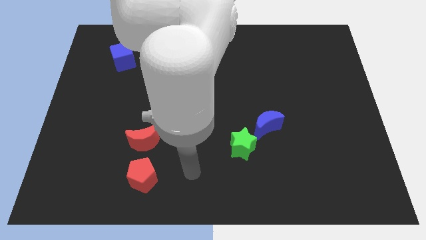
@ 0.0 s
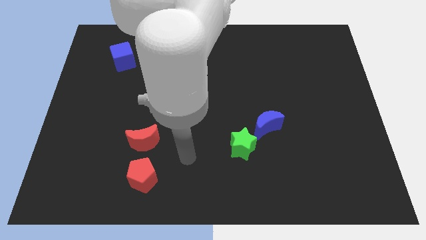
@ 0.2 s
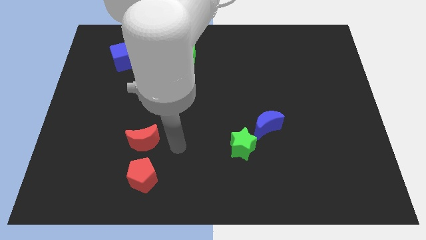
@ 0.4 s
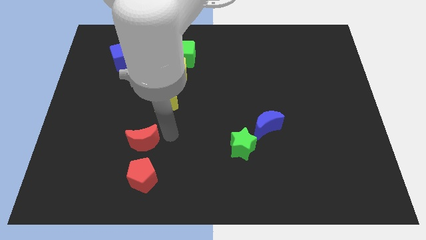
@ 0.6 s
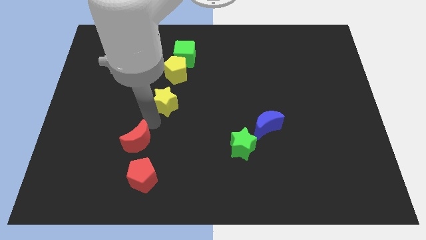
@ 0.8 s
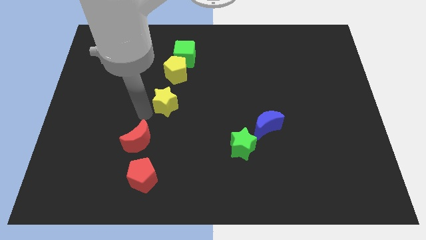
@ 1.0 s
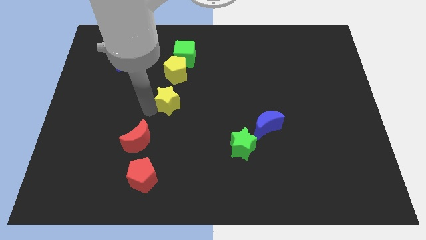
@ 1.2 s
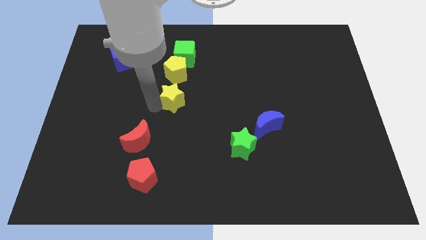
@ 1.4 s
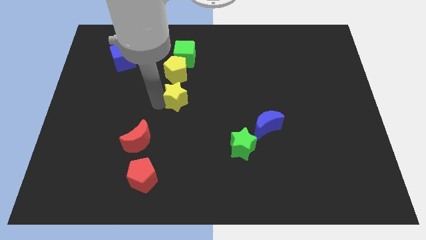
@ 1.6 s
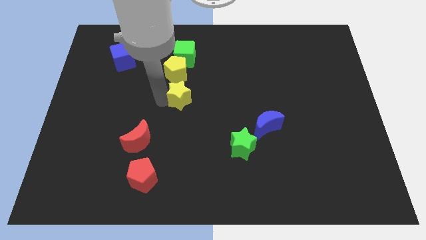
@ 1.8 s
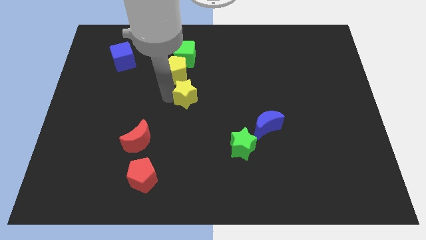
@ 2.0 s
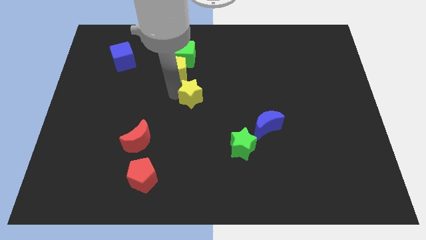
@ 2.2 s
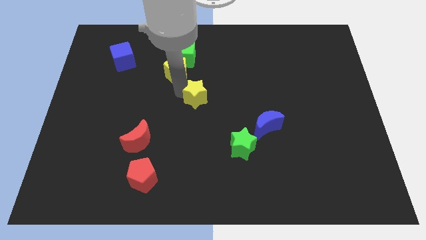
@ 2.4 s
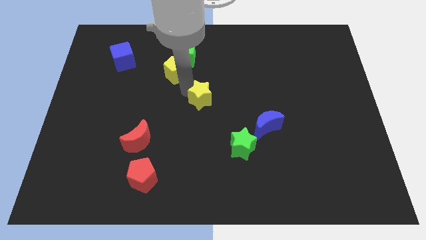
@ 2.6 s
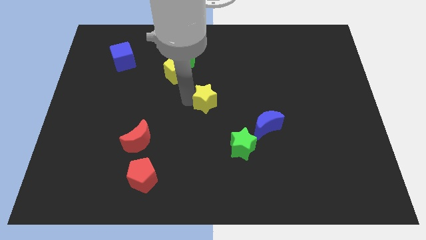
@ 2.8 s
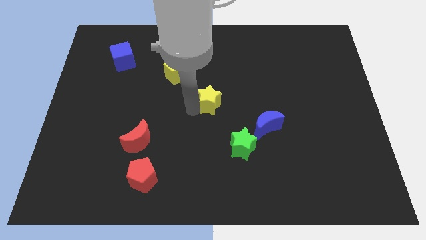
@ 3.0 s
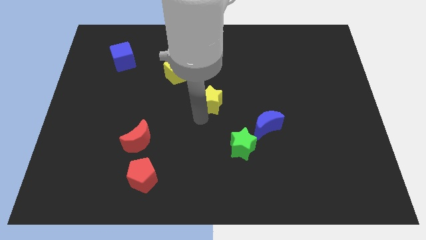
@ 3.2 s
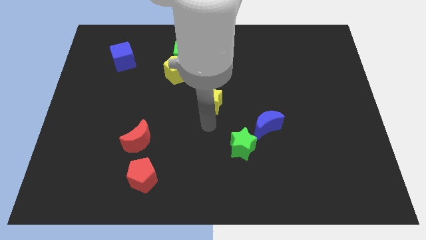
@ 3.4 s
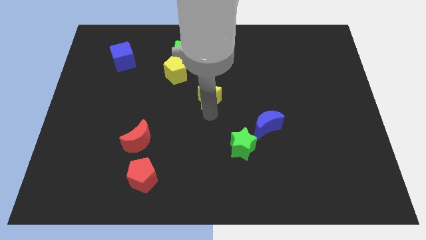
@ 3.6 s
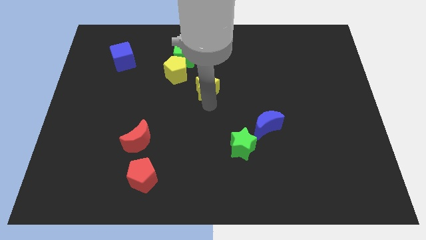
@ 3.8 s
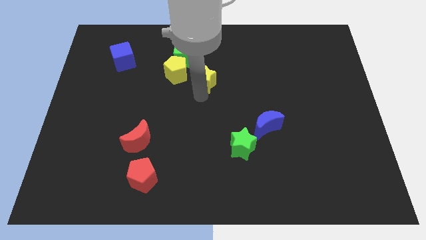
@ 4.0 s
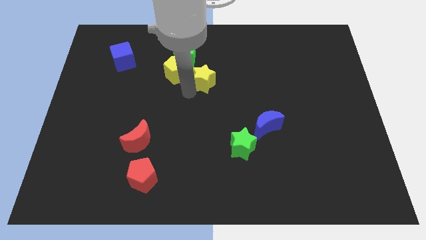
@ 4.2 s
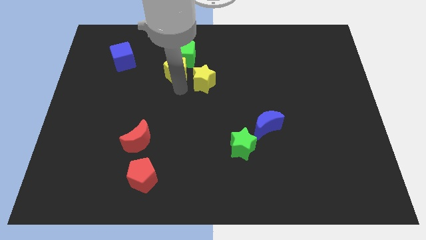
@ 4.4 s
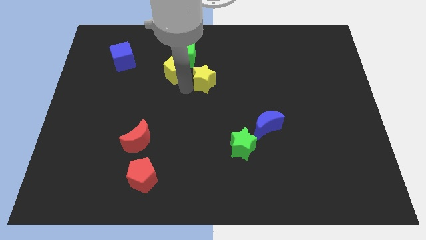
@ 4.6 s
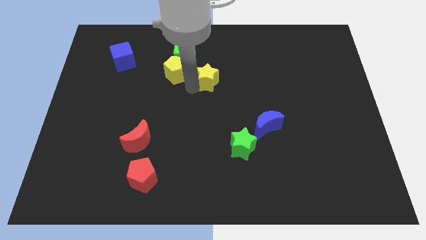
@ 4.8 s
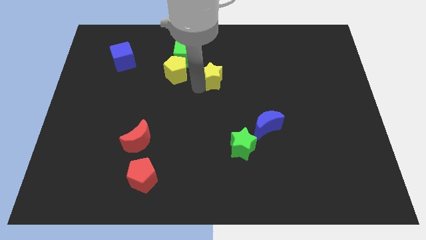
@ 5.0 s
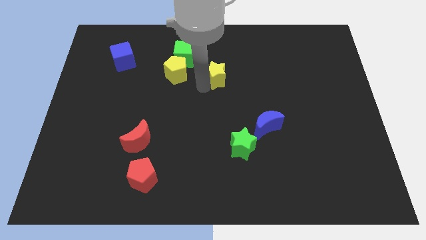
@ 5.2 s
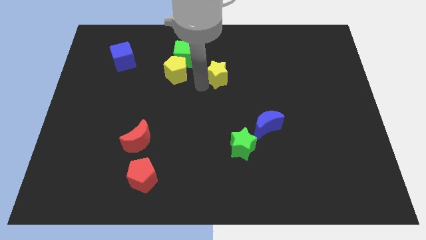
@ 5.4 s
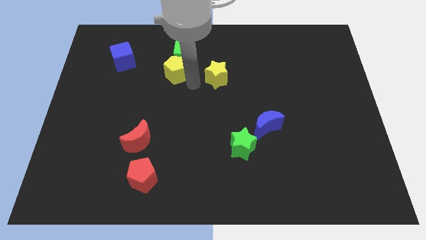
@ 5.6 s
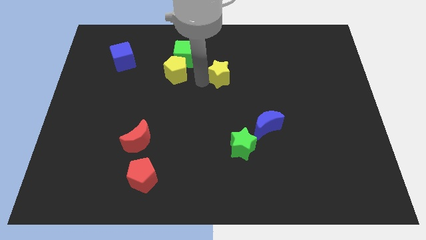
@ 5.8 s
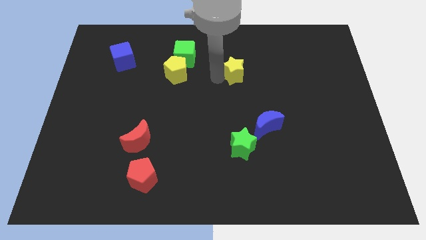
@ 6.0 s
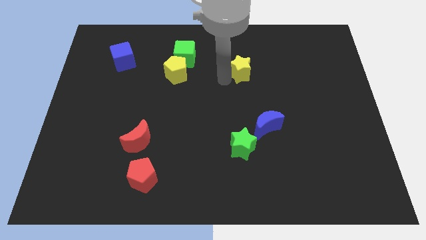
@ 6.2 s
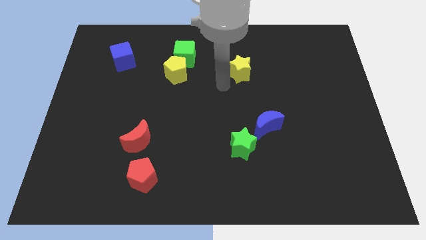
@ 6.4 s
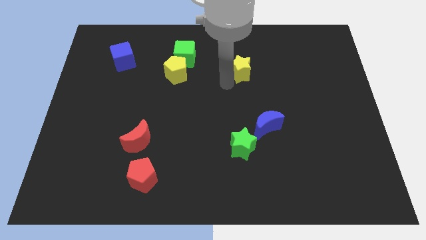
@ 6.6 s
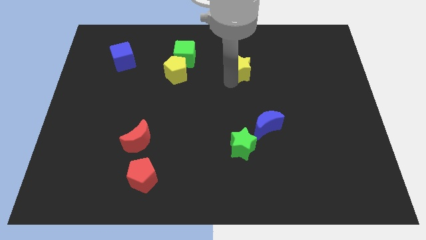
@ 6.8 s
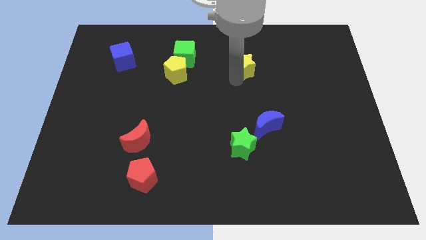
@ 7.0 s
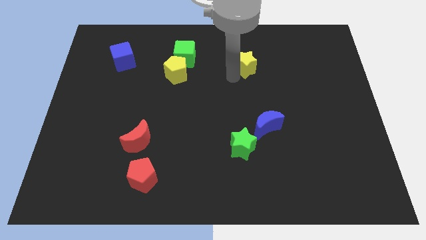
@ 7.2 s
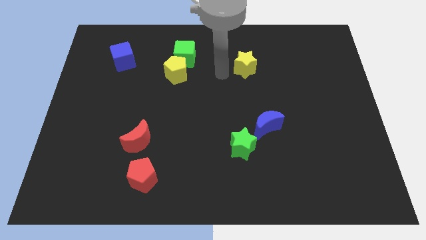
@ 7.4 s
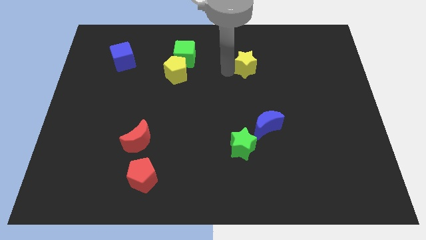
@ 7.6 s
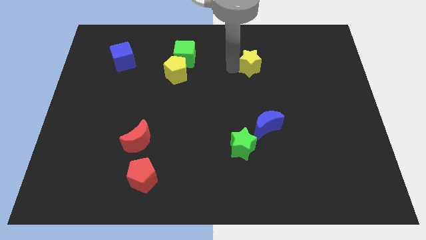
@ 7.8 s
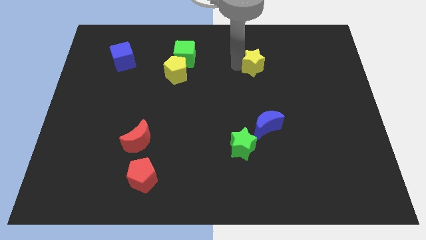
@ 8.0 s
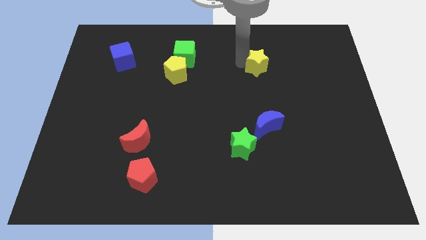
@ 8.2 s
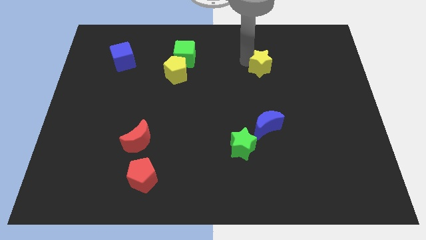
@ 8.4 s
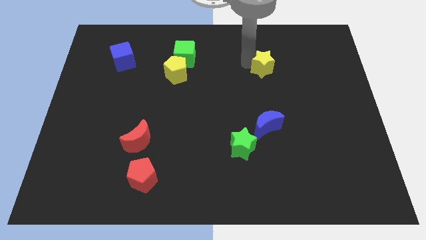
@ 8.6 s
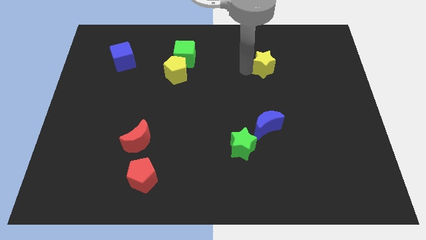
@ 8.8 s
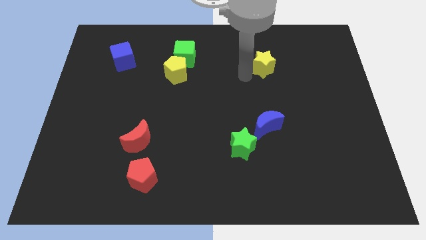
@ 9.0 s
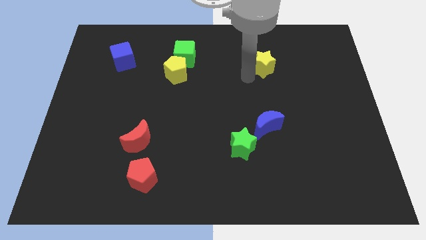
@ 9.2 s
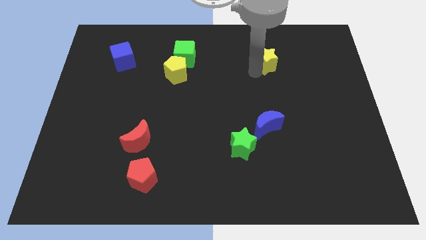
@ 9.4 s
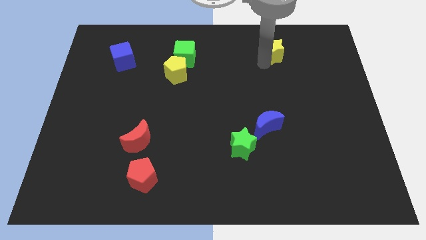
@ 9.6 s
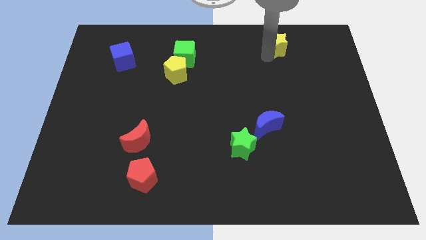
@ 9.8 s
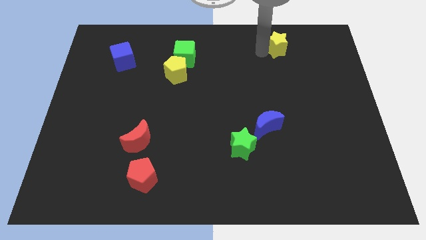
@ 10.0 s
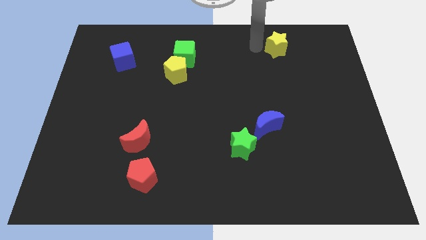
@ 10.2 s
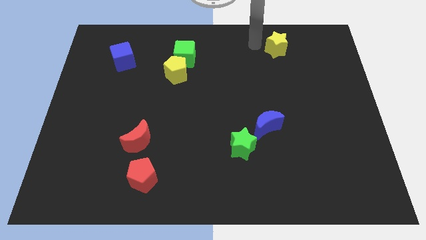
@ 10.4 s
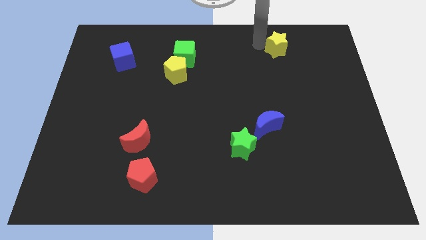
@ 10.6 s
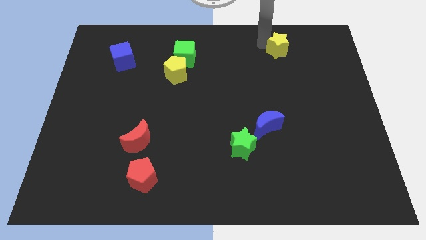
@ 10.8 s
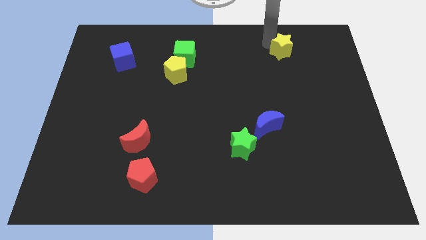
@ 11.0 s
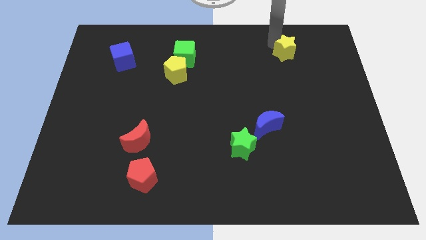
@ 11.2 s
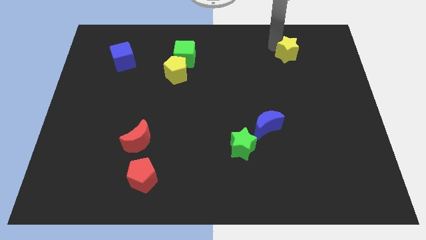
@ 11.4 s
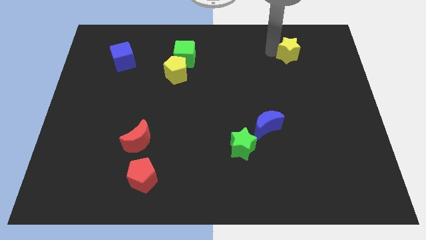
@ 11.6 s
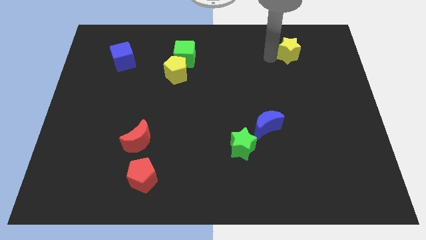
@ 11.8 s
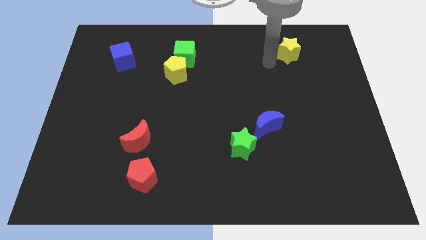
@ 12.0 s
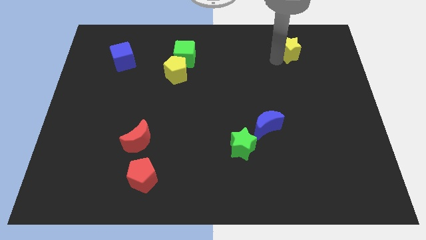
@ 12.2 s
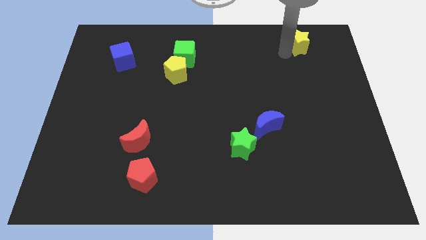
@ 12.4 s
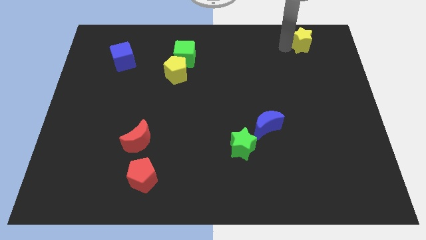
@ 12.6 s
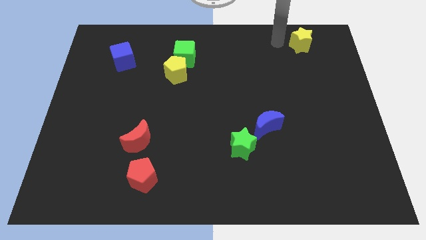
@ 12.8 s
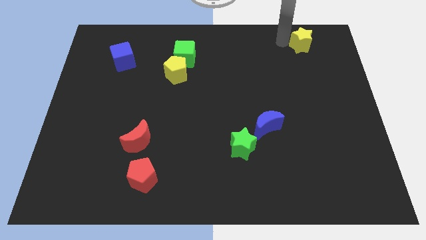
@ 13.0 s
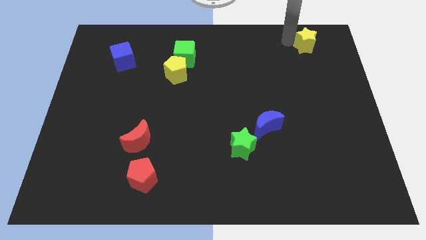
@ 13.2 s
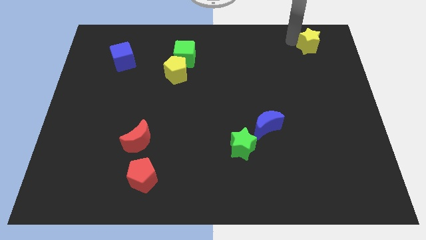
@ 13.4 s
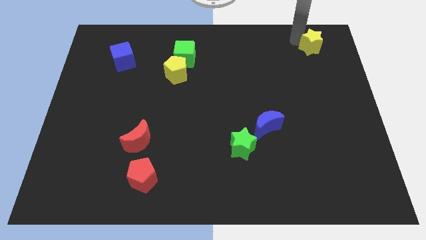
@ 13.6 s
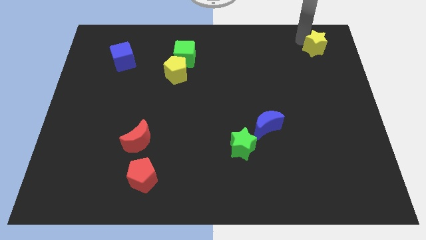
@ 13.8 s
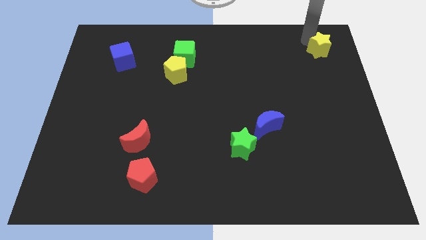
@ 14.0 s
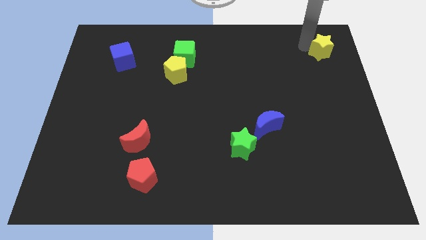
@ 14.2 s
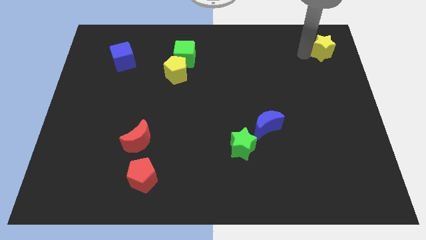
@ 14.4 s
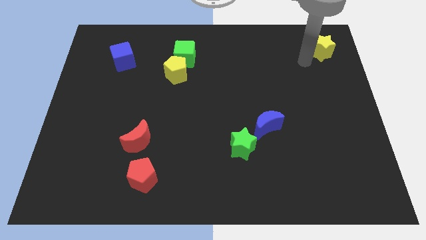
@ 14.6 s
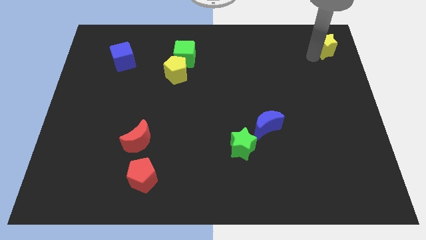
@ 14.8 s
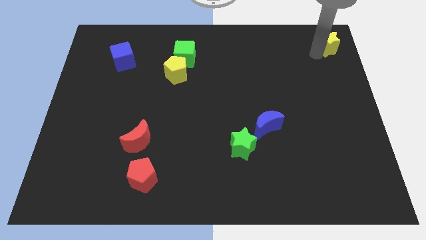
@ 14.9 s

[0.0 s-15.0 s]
put the yellow star to the top right of the board
